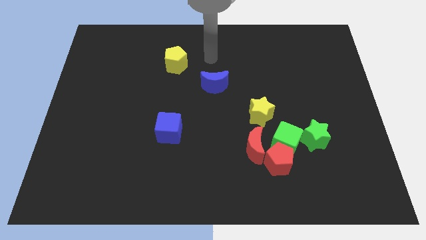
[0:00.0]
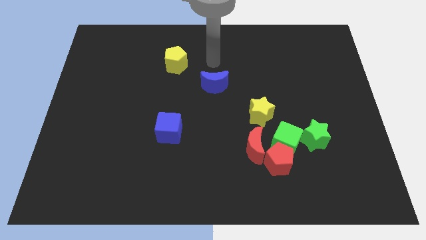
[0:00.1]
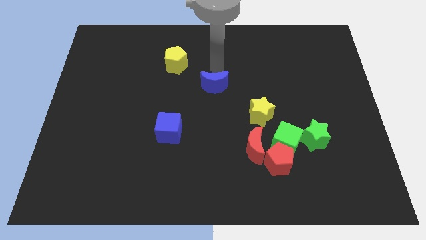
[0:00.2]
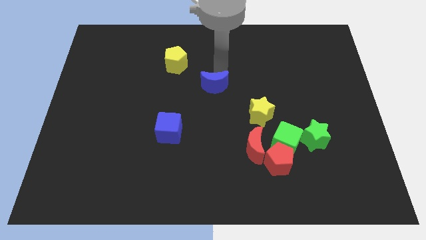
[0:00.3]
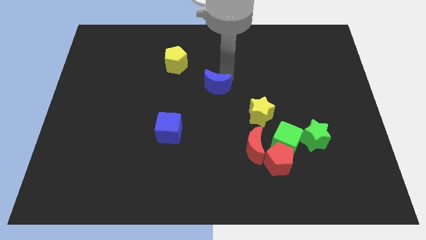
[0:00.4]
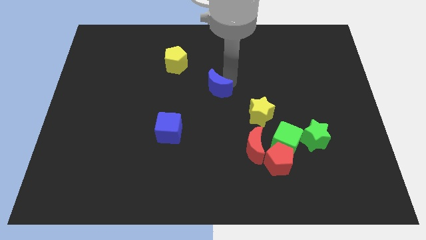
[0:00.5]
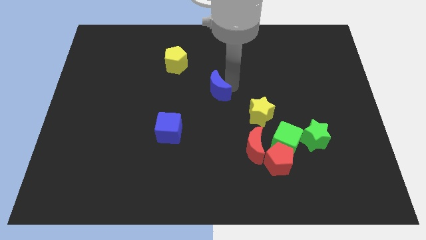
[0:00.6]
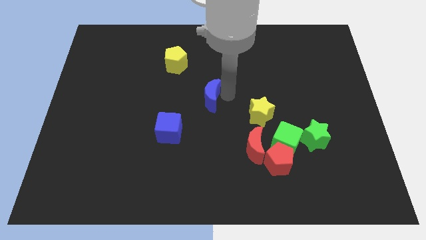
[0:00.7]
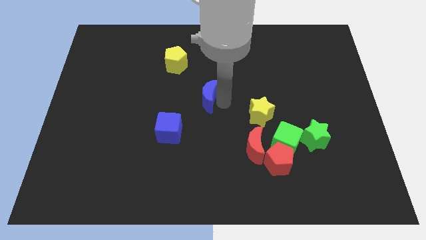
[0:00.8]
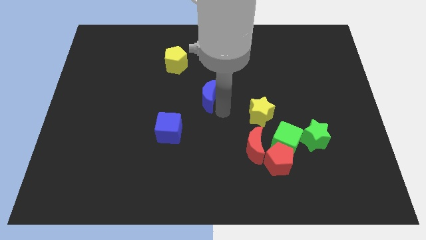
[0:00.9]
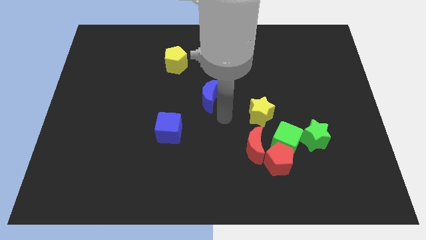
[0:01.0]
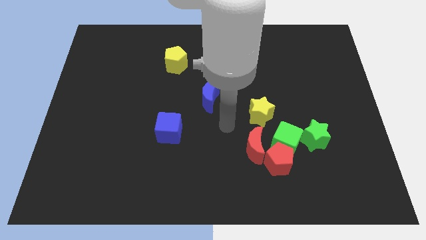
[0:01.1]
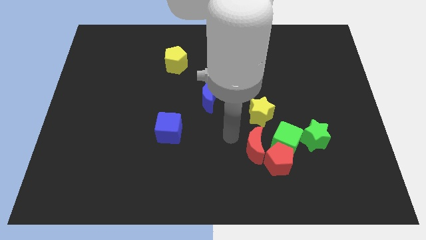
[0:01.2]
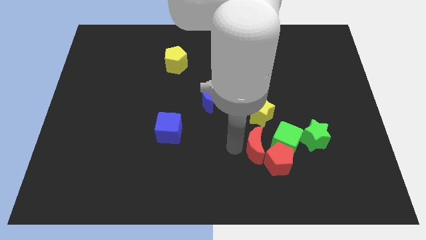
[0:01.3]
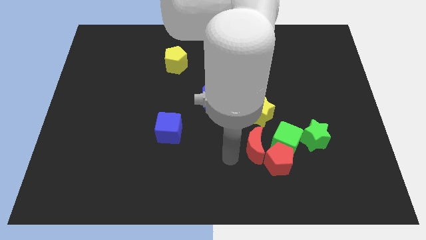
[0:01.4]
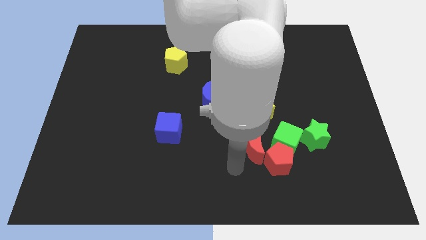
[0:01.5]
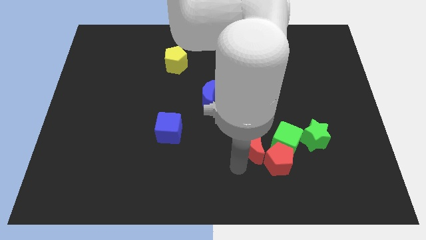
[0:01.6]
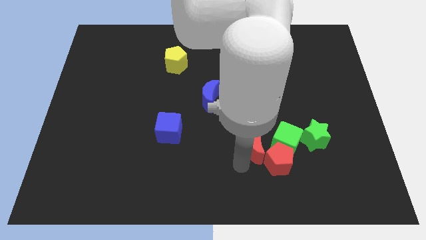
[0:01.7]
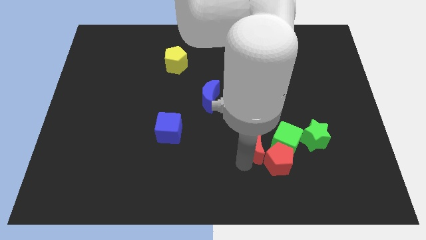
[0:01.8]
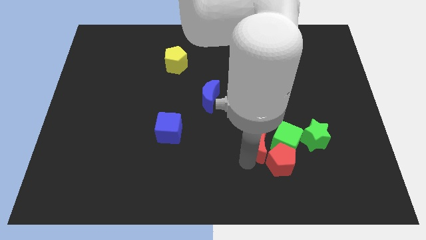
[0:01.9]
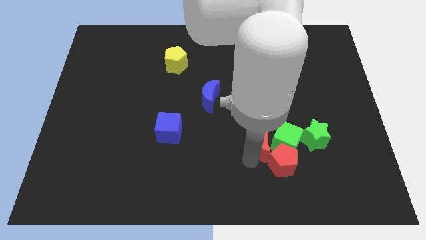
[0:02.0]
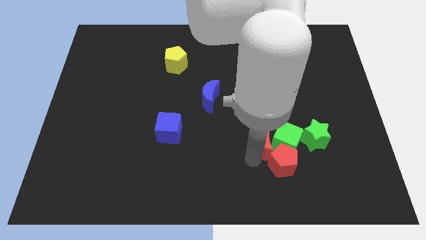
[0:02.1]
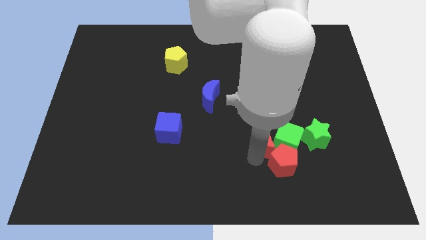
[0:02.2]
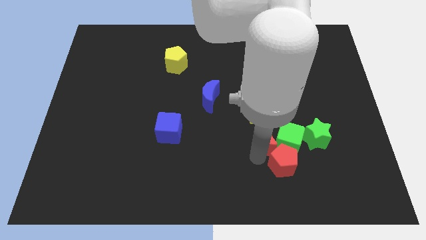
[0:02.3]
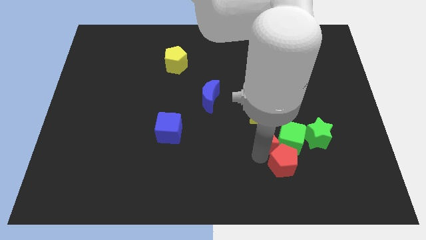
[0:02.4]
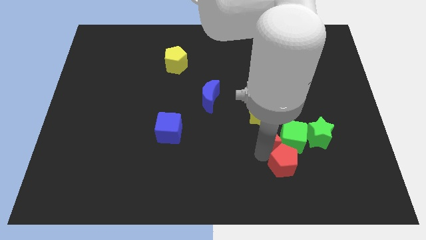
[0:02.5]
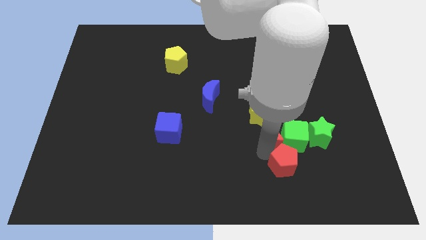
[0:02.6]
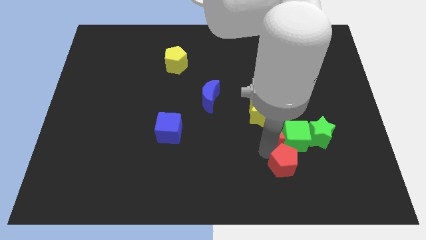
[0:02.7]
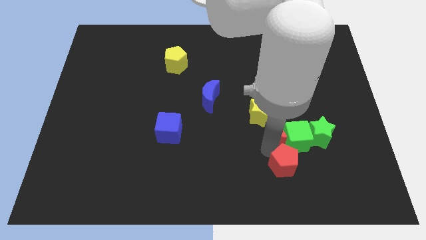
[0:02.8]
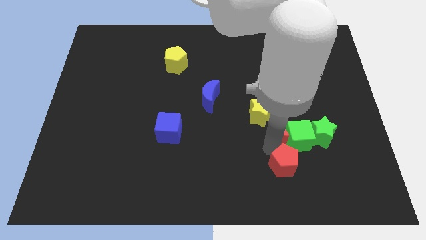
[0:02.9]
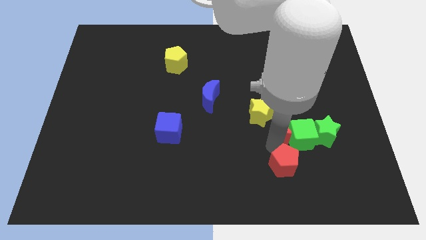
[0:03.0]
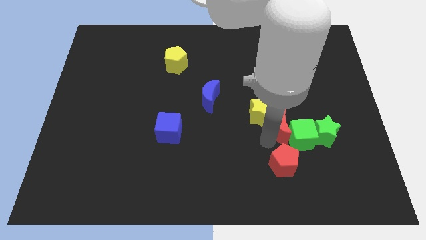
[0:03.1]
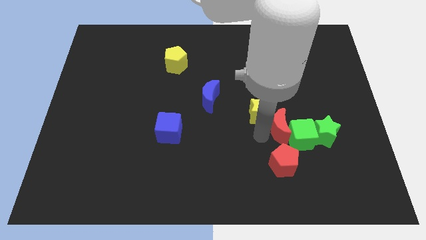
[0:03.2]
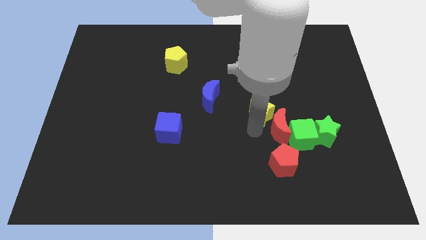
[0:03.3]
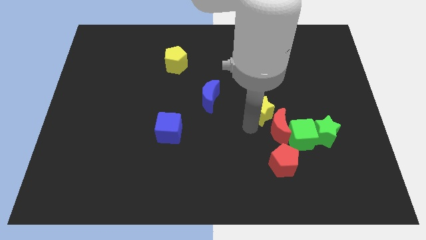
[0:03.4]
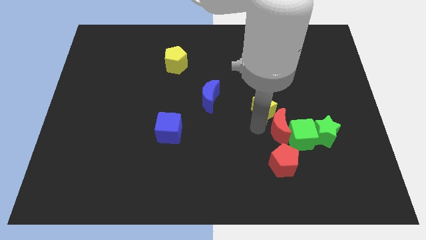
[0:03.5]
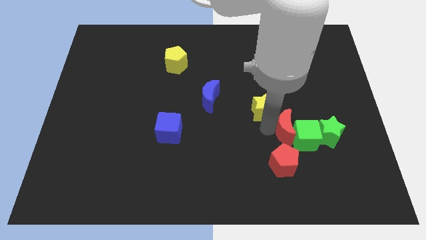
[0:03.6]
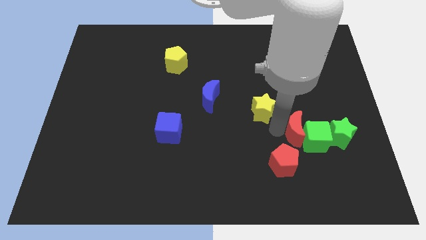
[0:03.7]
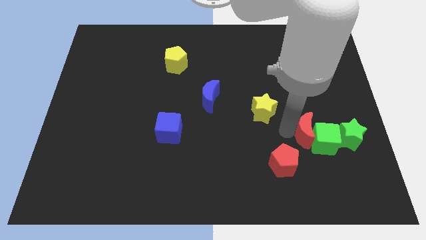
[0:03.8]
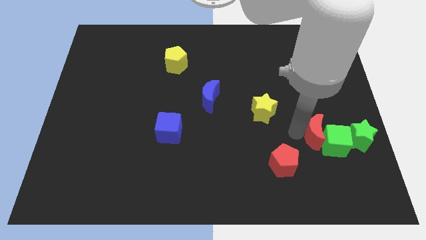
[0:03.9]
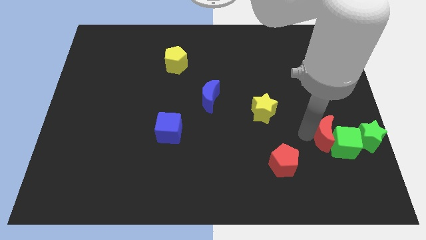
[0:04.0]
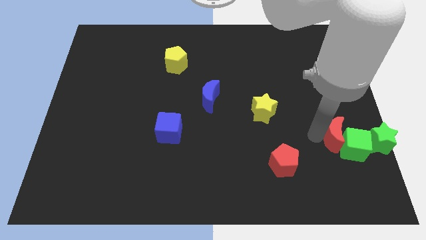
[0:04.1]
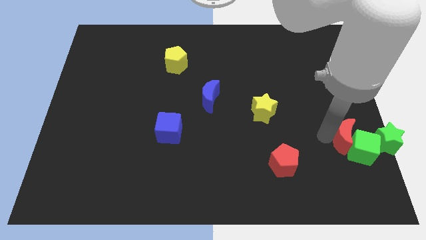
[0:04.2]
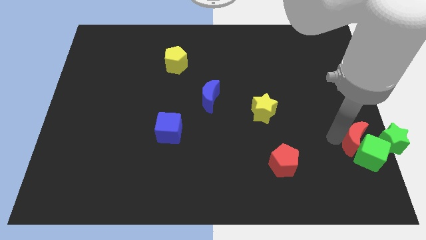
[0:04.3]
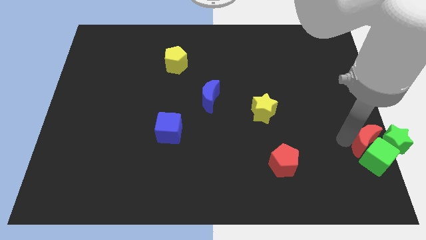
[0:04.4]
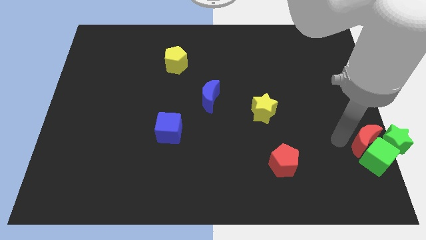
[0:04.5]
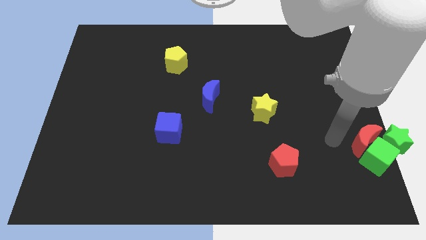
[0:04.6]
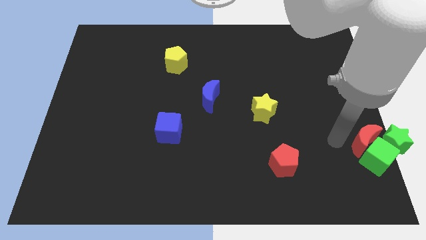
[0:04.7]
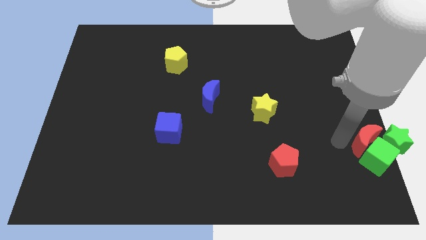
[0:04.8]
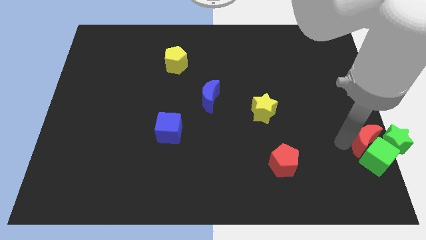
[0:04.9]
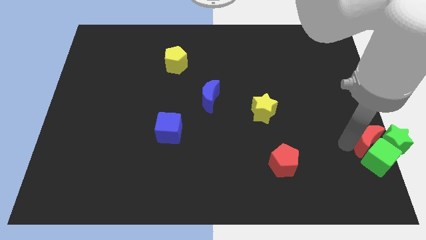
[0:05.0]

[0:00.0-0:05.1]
slide the red moon next to the green star

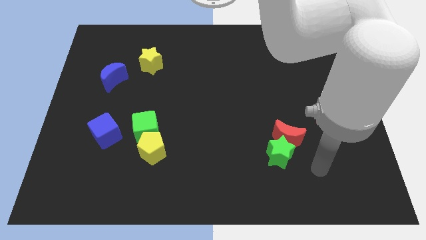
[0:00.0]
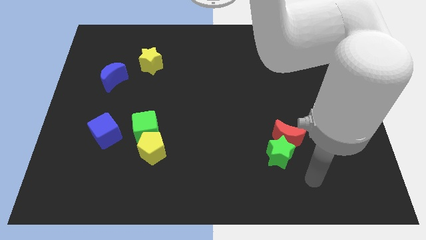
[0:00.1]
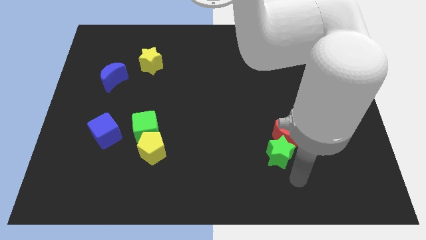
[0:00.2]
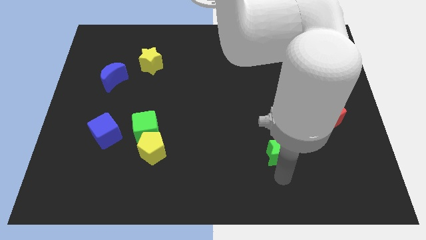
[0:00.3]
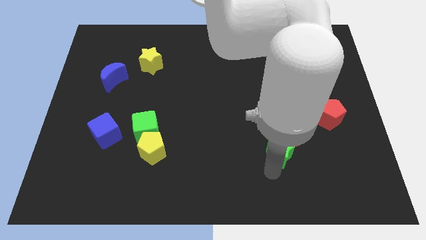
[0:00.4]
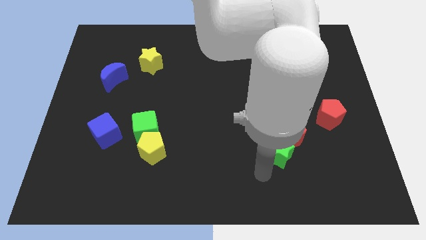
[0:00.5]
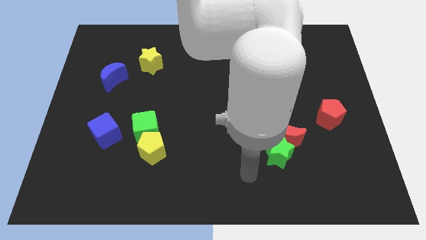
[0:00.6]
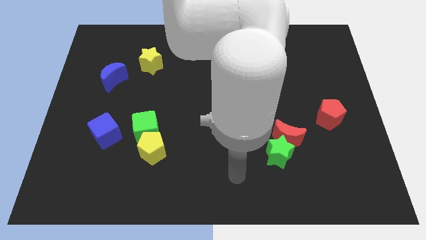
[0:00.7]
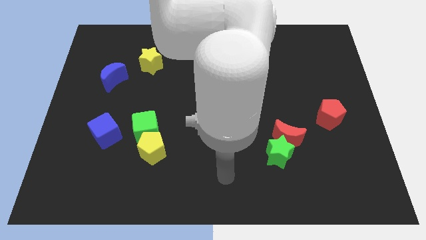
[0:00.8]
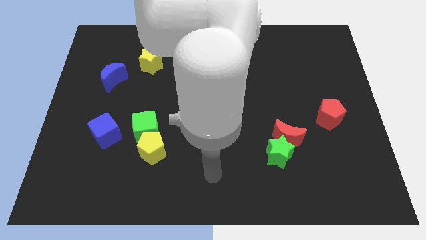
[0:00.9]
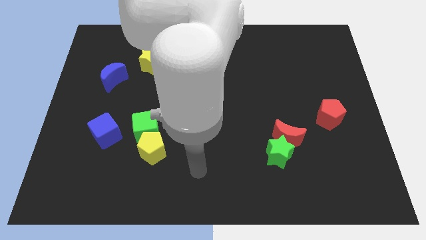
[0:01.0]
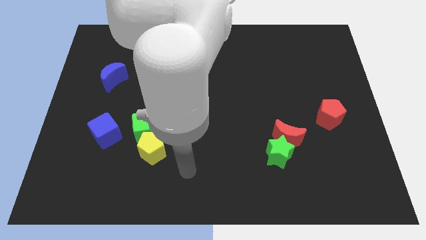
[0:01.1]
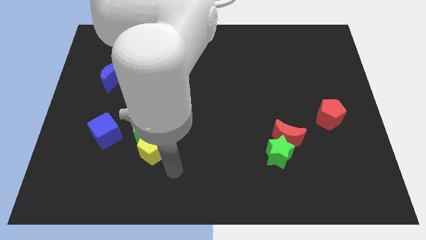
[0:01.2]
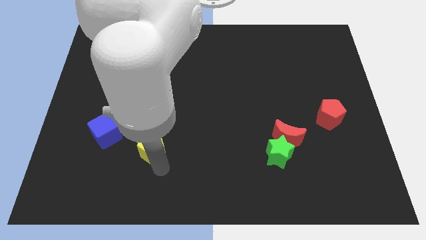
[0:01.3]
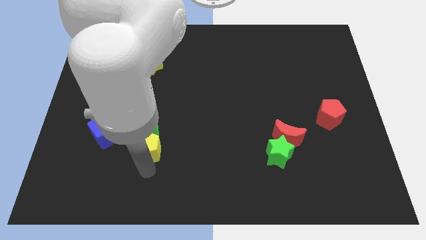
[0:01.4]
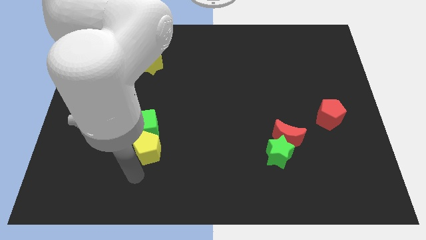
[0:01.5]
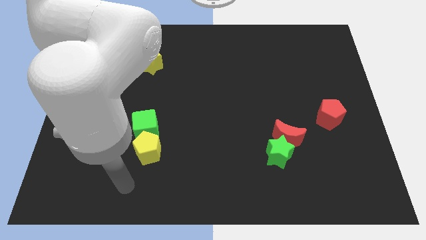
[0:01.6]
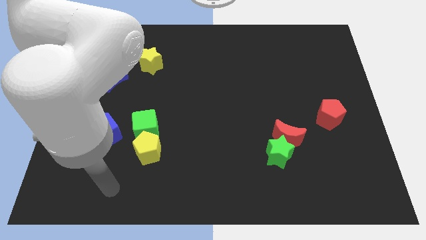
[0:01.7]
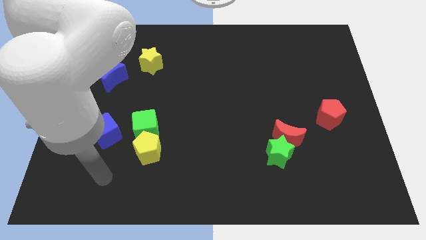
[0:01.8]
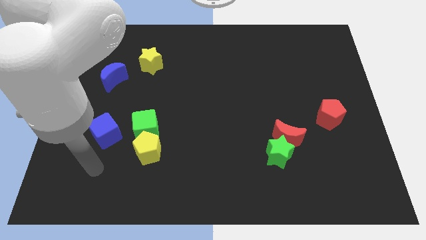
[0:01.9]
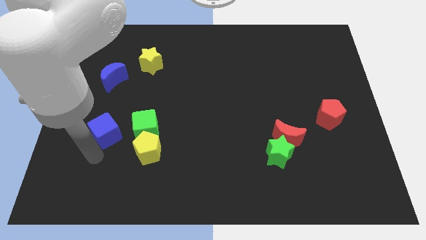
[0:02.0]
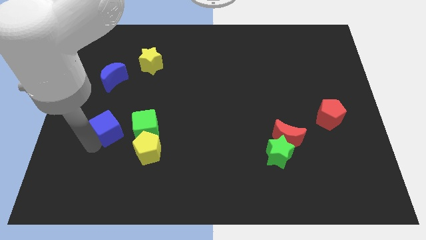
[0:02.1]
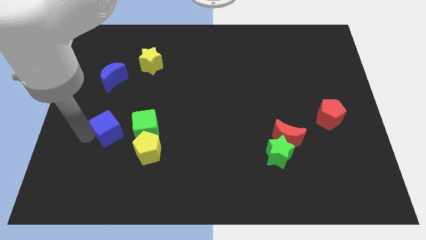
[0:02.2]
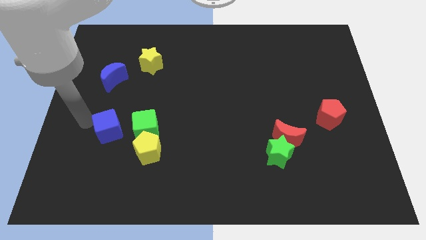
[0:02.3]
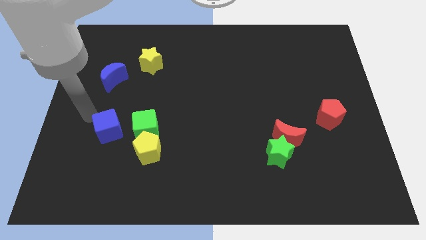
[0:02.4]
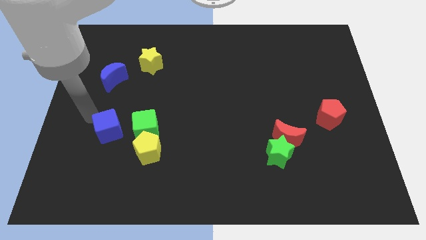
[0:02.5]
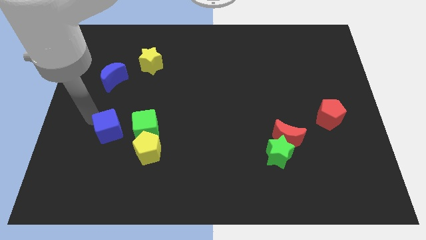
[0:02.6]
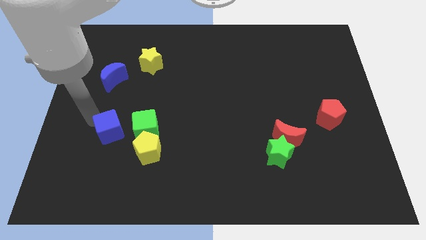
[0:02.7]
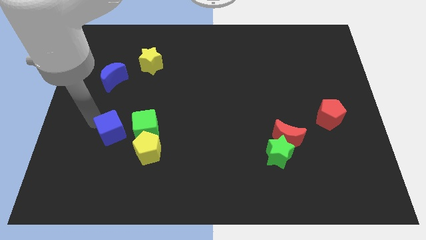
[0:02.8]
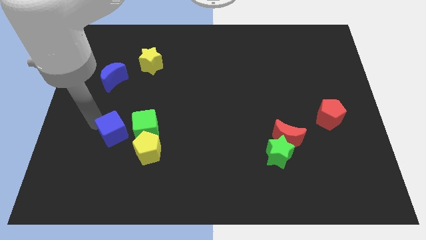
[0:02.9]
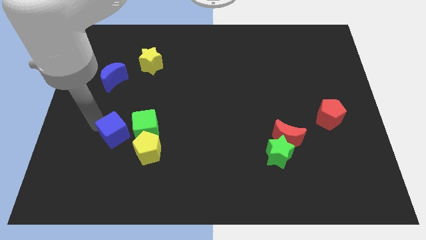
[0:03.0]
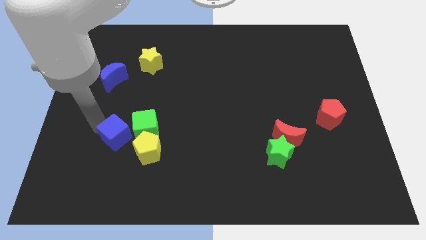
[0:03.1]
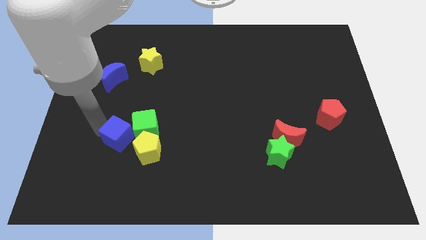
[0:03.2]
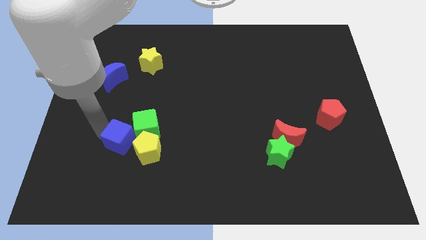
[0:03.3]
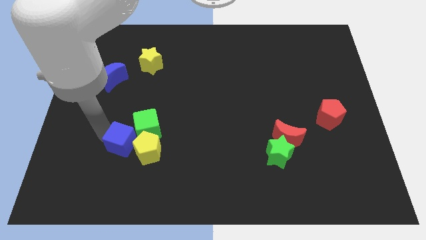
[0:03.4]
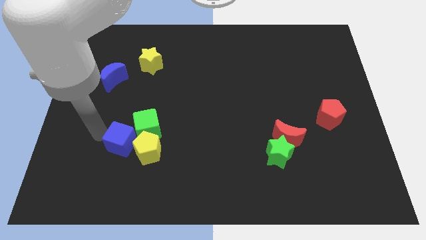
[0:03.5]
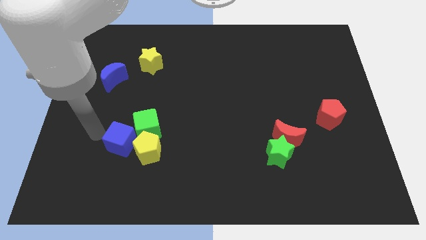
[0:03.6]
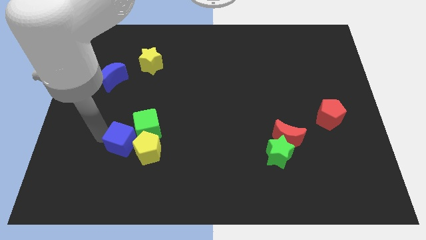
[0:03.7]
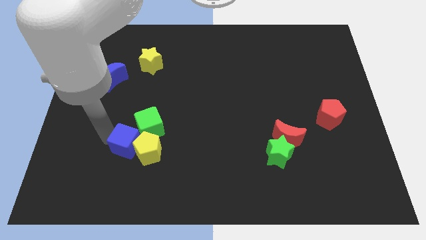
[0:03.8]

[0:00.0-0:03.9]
push the blue cube next to the yellow pentagon
